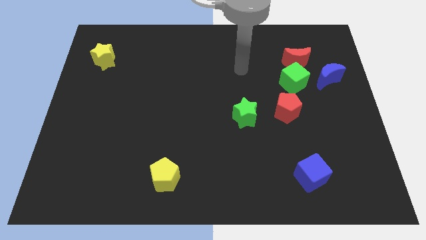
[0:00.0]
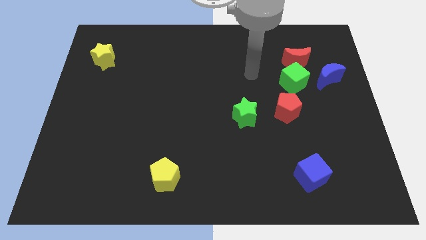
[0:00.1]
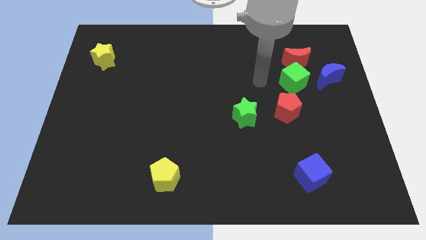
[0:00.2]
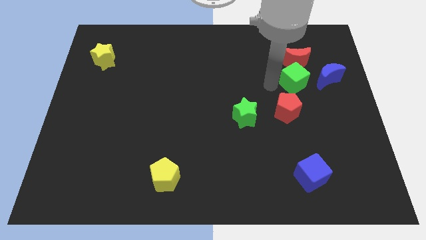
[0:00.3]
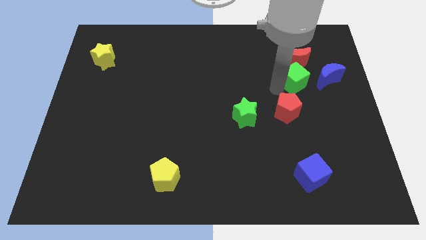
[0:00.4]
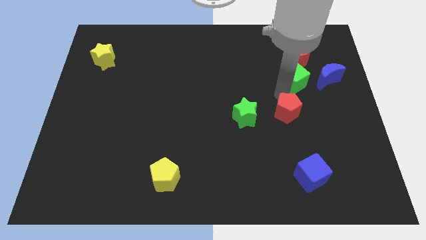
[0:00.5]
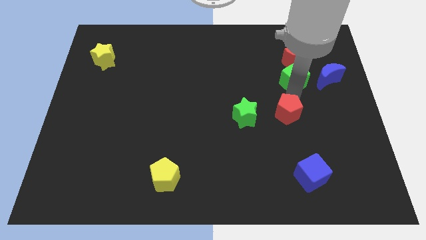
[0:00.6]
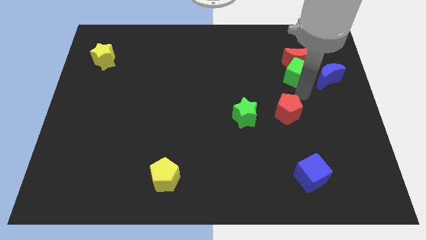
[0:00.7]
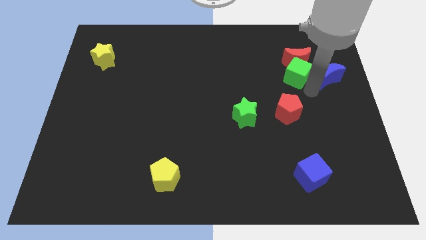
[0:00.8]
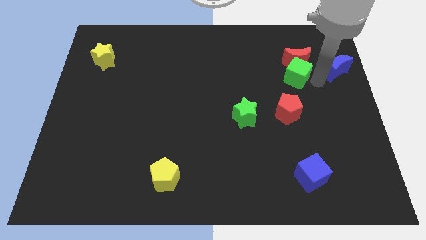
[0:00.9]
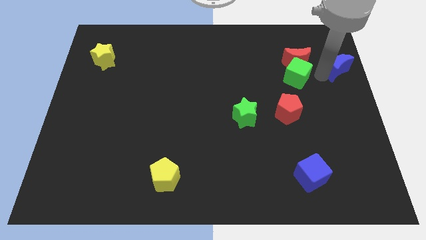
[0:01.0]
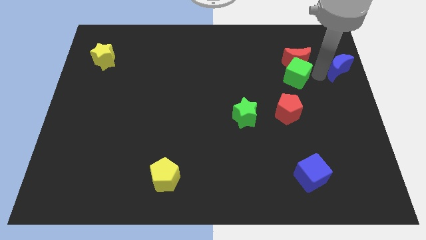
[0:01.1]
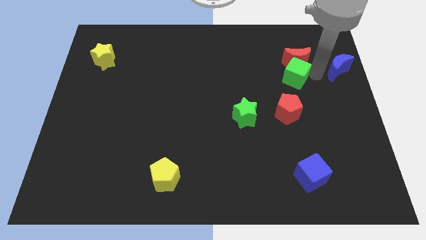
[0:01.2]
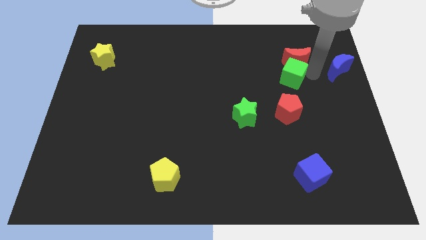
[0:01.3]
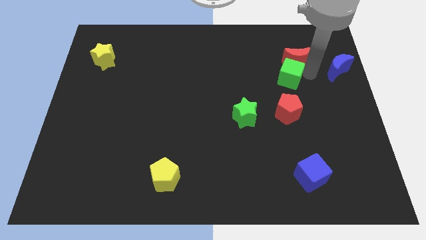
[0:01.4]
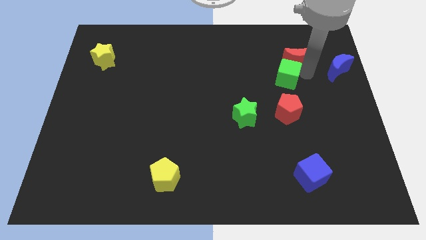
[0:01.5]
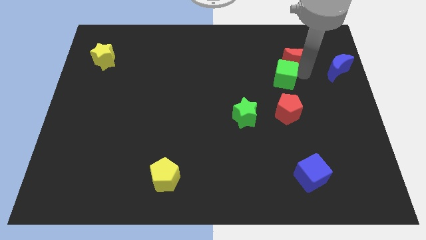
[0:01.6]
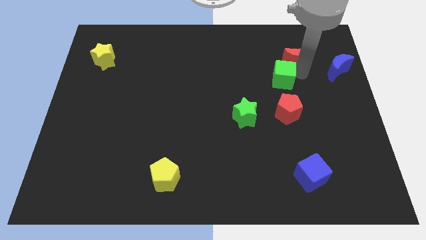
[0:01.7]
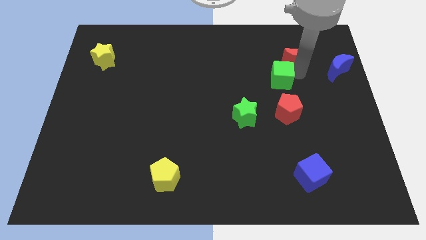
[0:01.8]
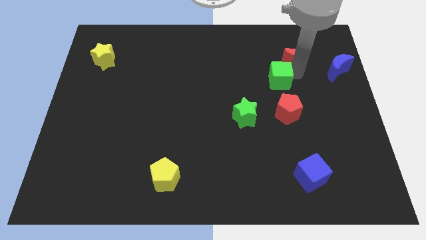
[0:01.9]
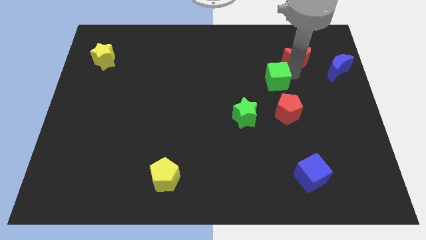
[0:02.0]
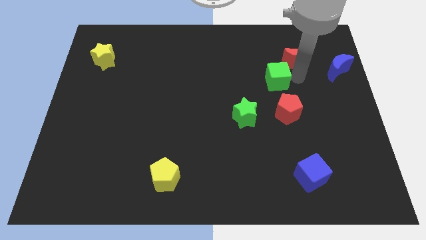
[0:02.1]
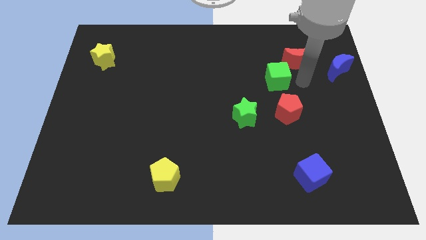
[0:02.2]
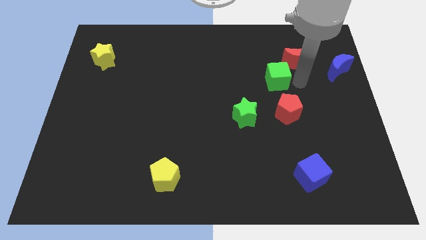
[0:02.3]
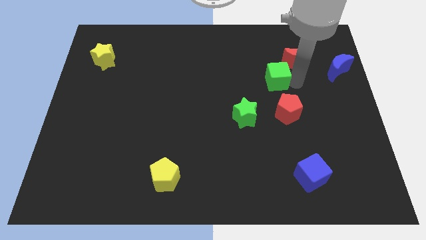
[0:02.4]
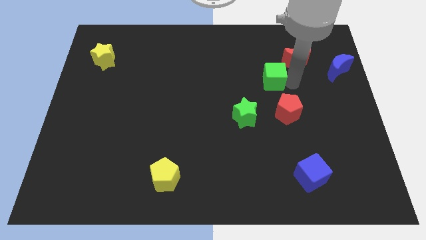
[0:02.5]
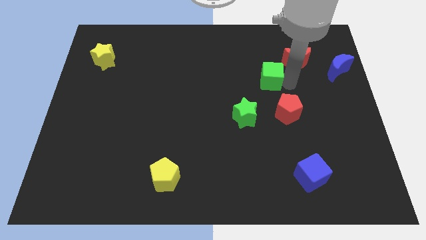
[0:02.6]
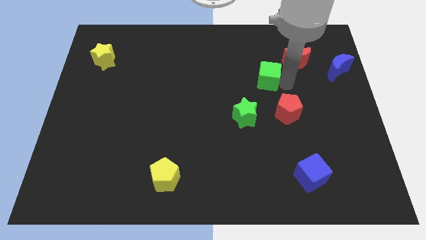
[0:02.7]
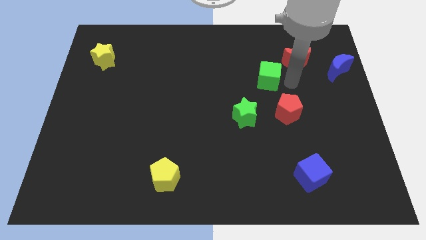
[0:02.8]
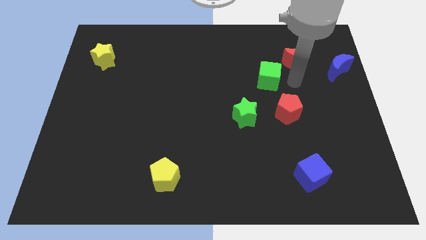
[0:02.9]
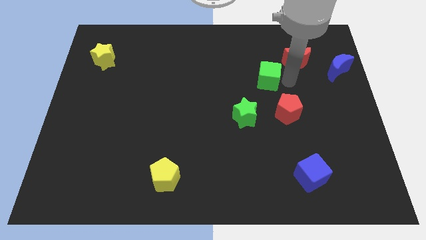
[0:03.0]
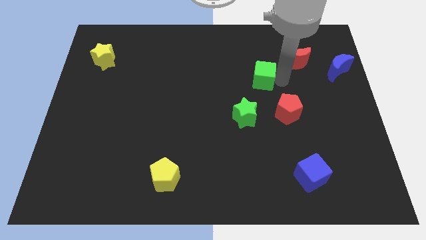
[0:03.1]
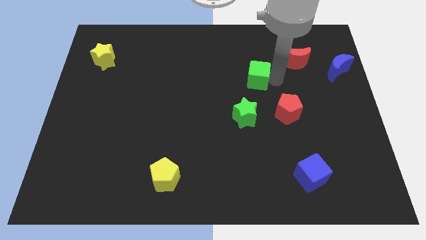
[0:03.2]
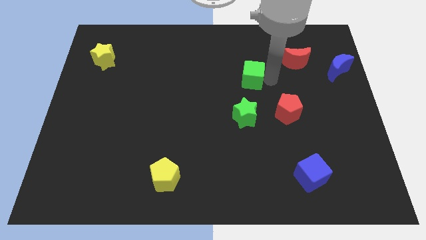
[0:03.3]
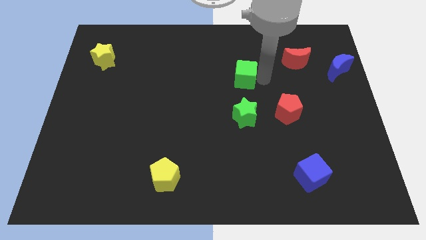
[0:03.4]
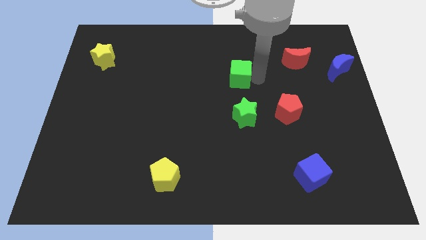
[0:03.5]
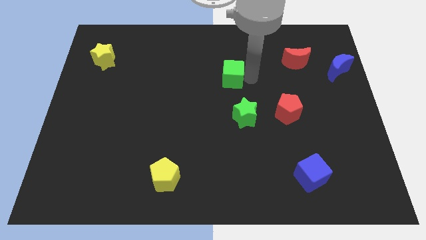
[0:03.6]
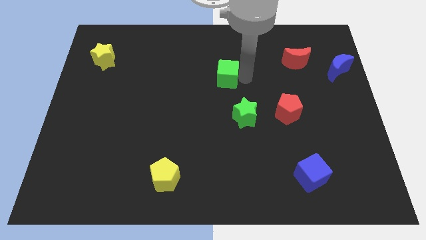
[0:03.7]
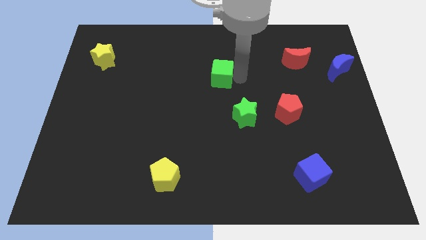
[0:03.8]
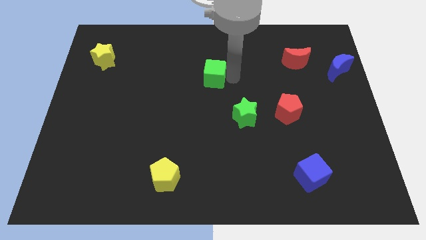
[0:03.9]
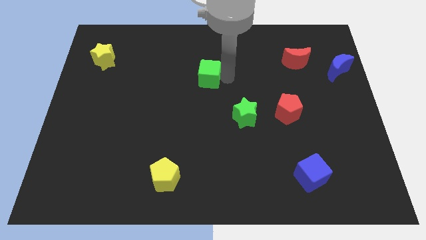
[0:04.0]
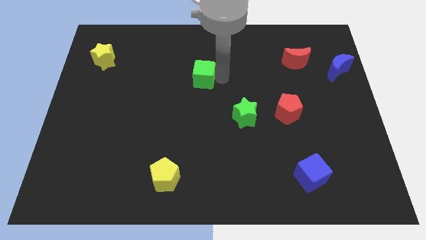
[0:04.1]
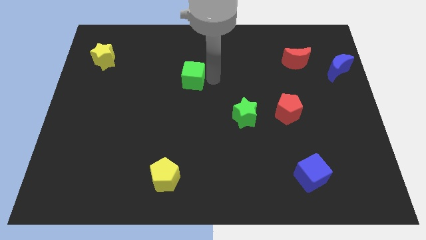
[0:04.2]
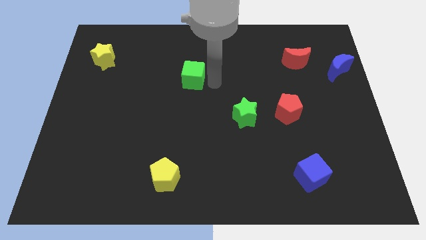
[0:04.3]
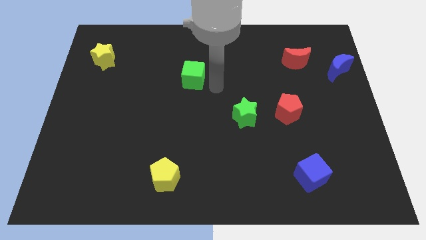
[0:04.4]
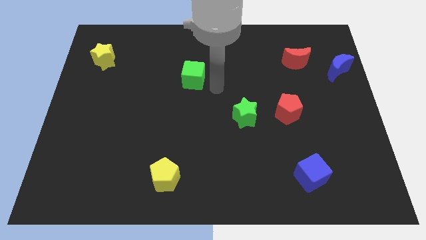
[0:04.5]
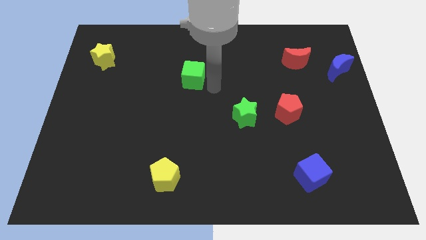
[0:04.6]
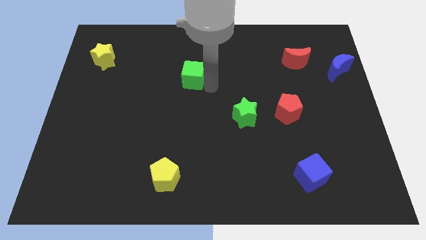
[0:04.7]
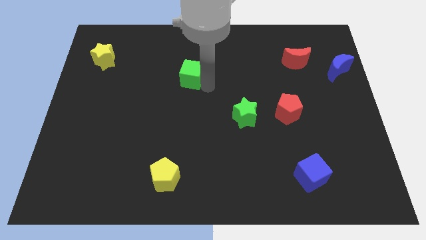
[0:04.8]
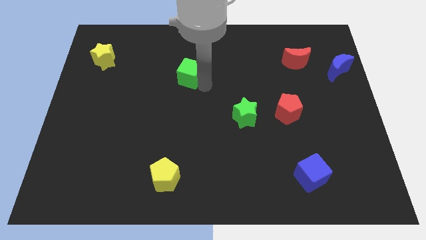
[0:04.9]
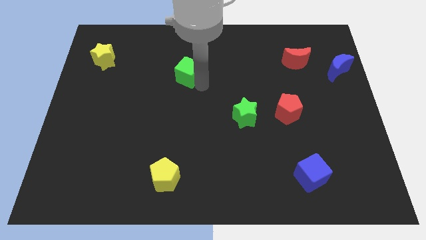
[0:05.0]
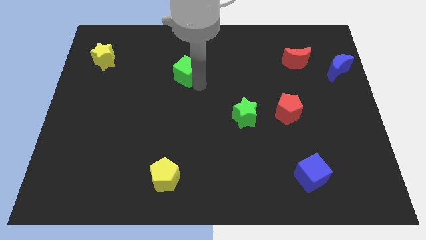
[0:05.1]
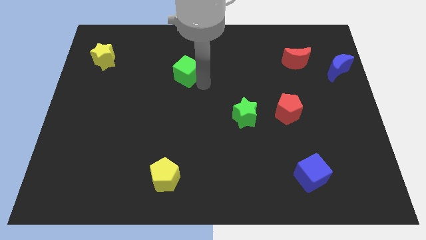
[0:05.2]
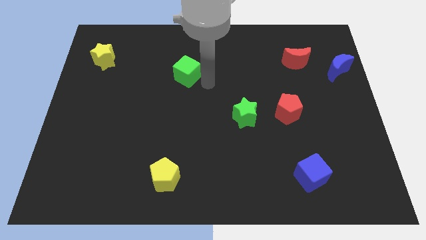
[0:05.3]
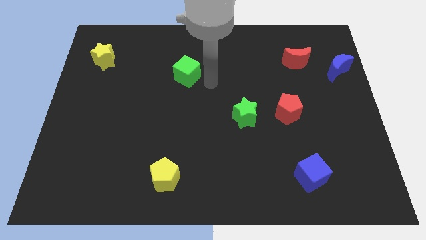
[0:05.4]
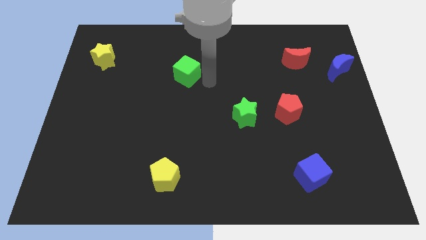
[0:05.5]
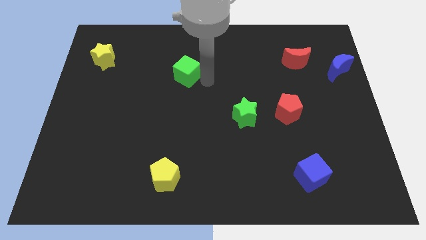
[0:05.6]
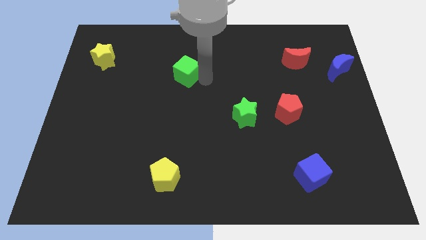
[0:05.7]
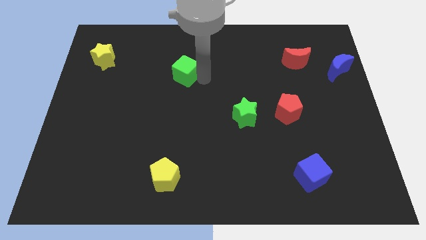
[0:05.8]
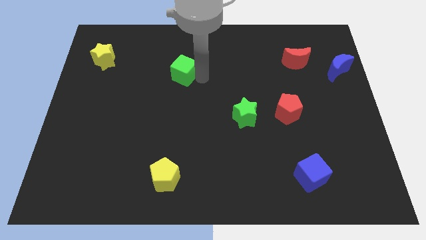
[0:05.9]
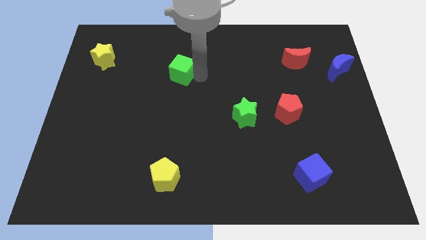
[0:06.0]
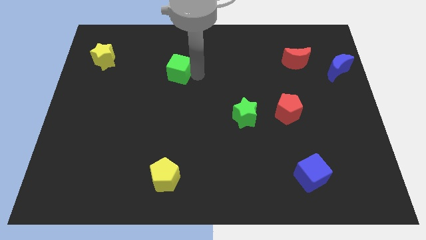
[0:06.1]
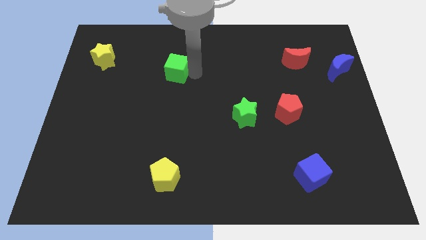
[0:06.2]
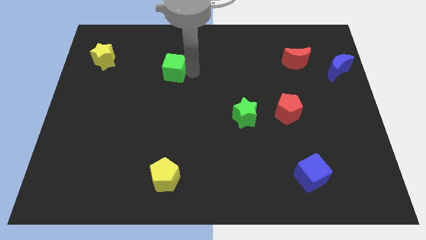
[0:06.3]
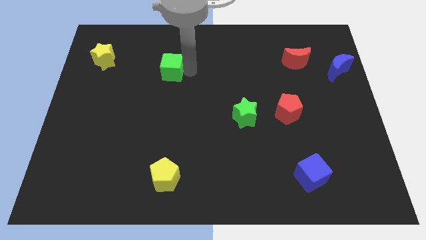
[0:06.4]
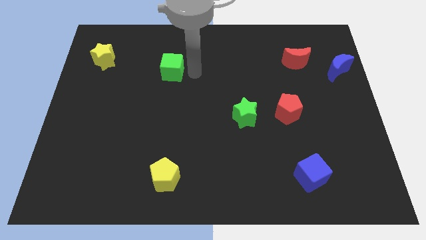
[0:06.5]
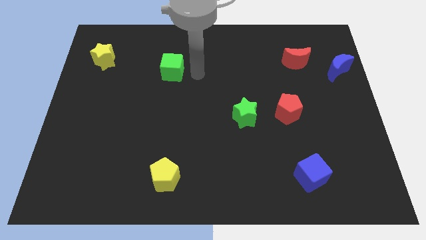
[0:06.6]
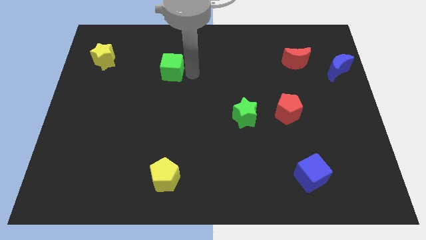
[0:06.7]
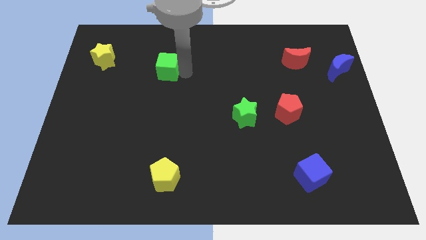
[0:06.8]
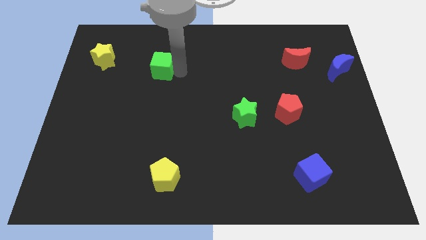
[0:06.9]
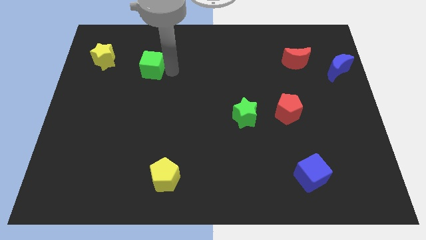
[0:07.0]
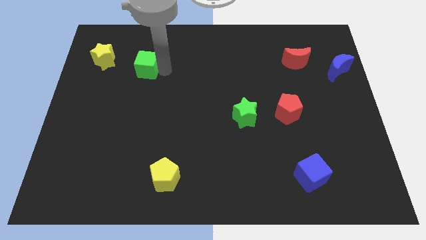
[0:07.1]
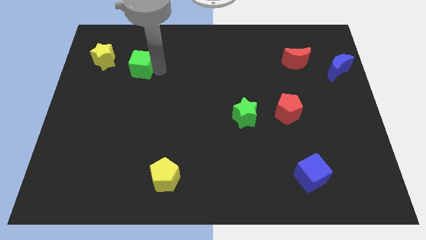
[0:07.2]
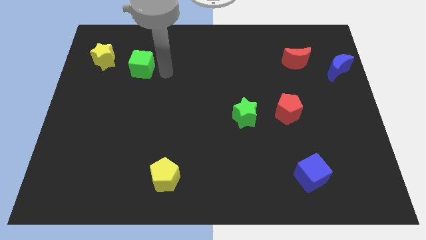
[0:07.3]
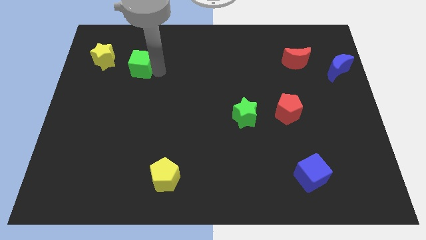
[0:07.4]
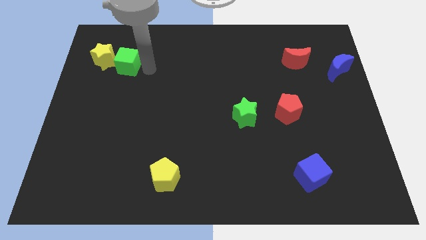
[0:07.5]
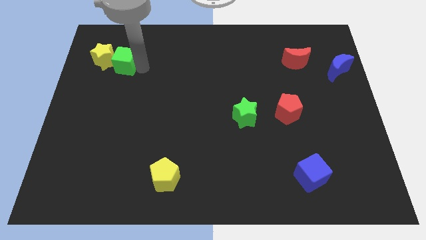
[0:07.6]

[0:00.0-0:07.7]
move the green cube close to the yellow star
